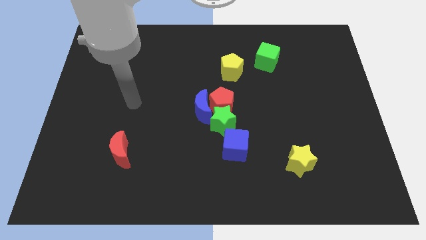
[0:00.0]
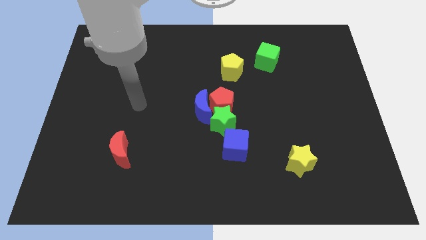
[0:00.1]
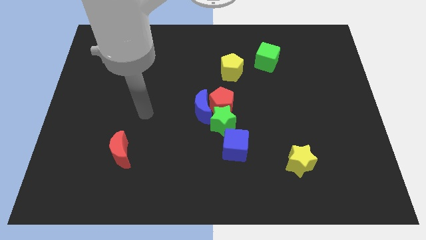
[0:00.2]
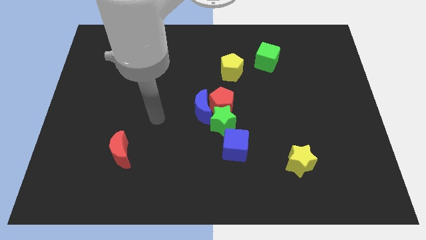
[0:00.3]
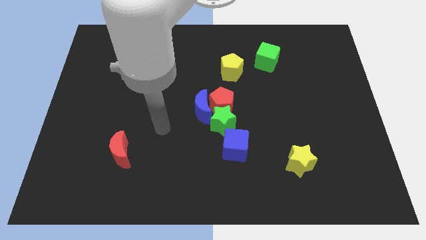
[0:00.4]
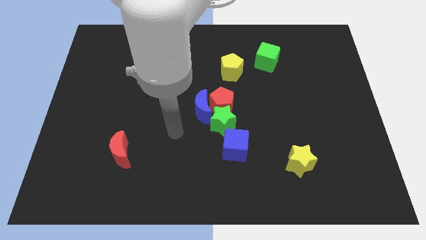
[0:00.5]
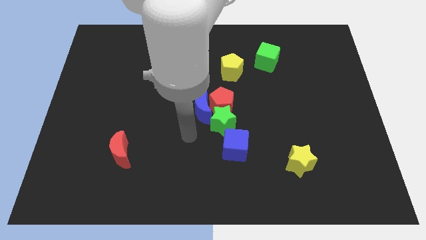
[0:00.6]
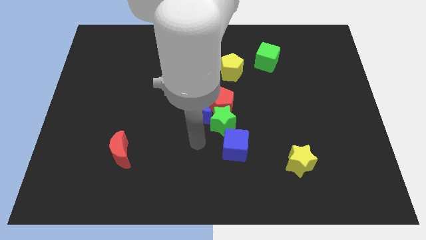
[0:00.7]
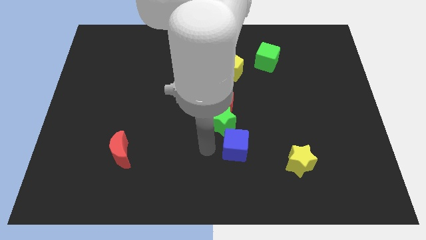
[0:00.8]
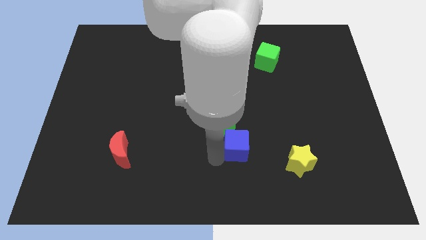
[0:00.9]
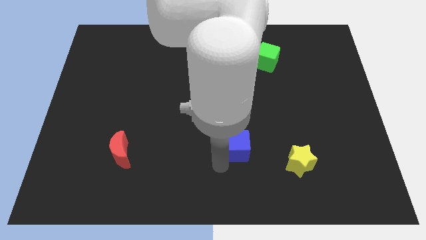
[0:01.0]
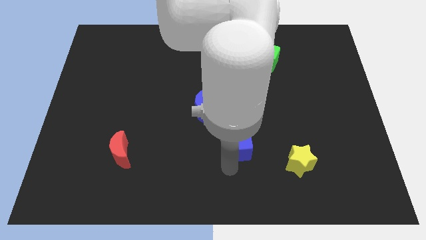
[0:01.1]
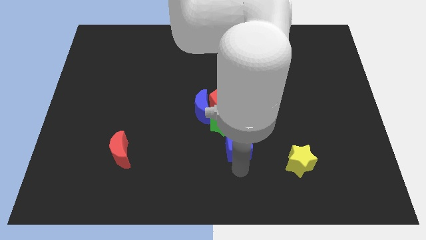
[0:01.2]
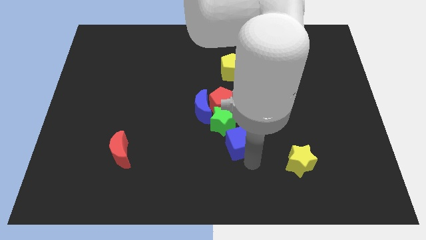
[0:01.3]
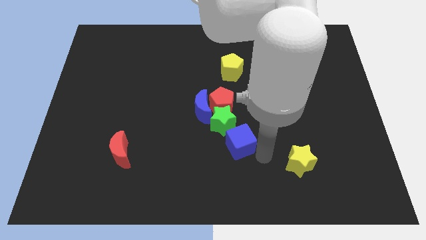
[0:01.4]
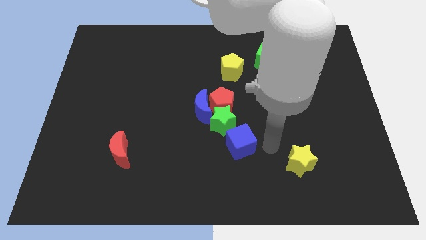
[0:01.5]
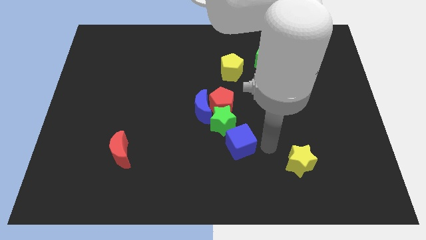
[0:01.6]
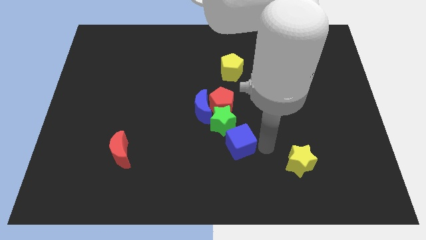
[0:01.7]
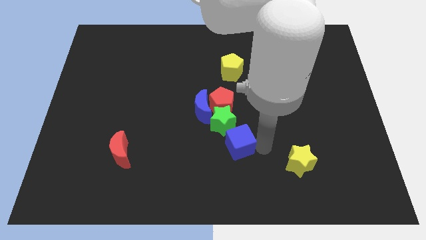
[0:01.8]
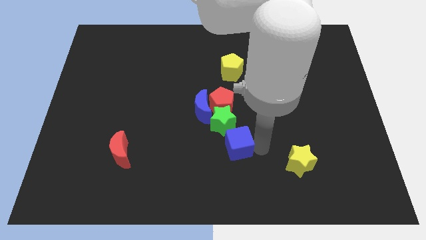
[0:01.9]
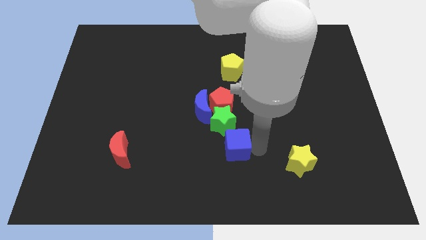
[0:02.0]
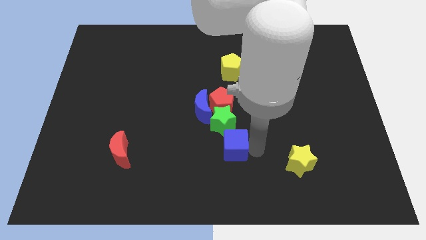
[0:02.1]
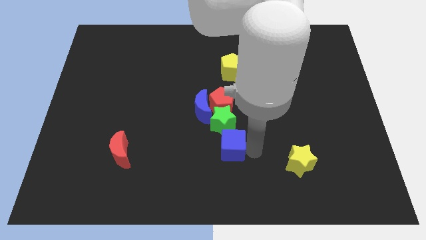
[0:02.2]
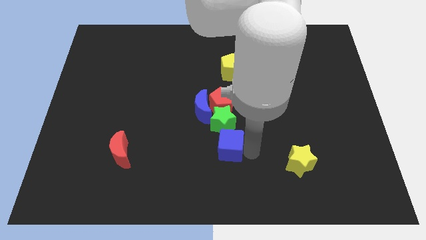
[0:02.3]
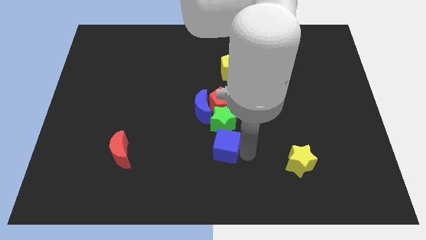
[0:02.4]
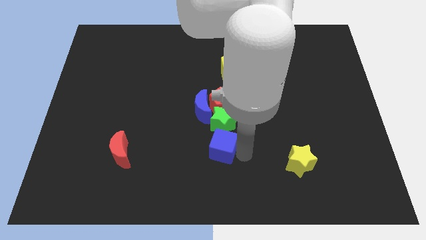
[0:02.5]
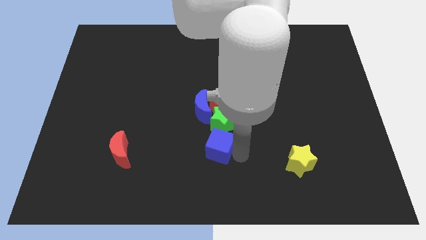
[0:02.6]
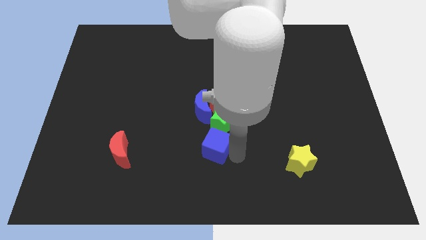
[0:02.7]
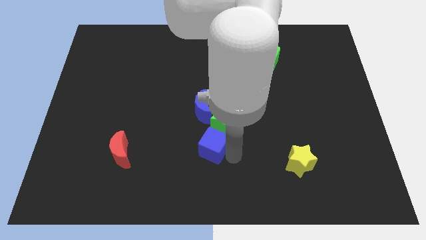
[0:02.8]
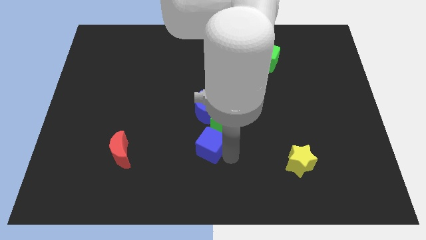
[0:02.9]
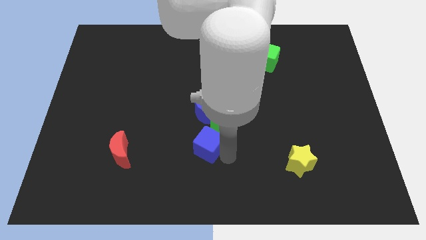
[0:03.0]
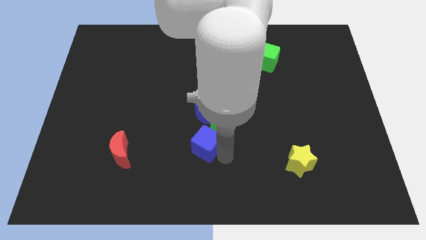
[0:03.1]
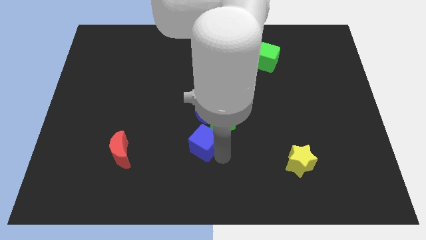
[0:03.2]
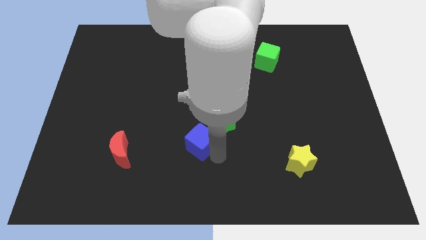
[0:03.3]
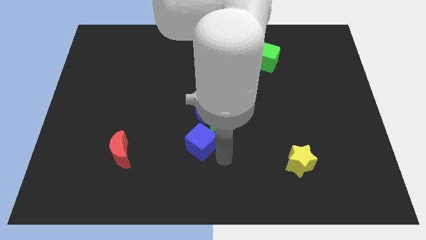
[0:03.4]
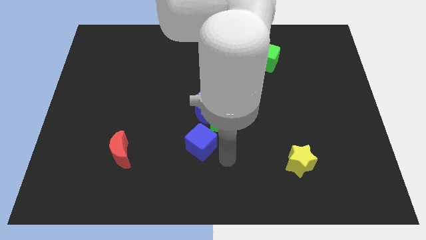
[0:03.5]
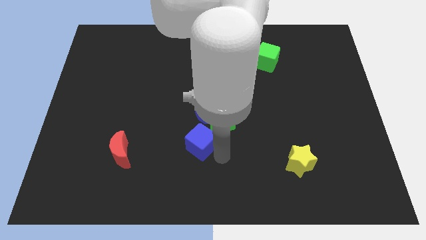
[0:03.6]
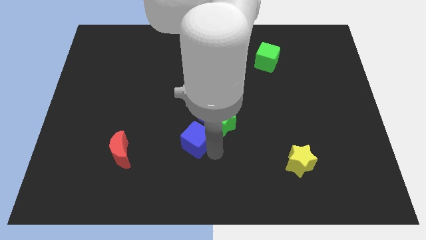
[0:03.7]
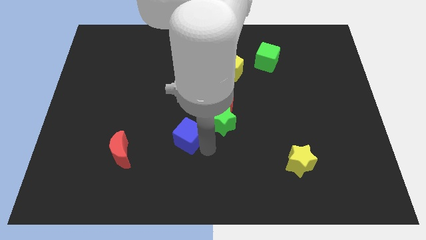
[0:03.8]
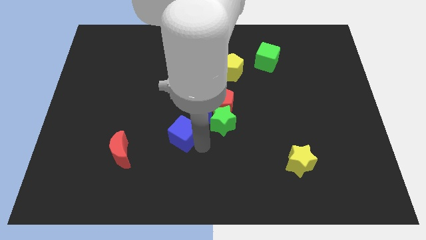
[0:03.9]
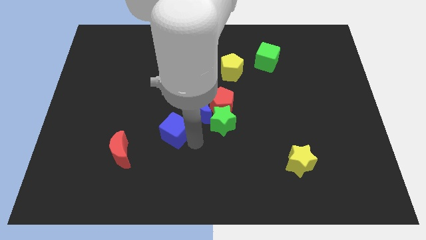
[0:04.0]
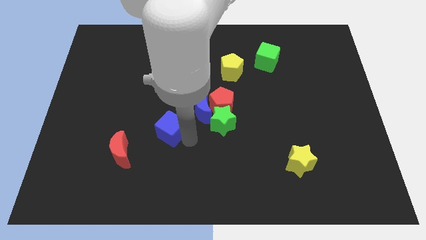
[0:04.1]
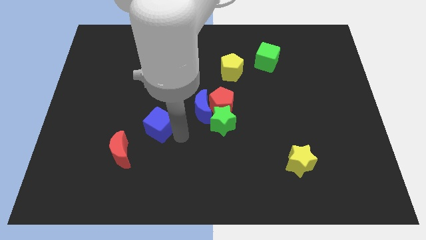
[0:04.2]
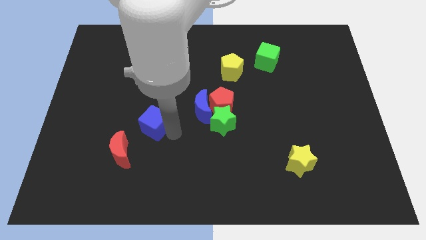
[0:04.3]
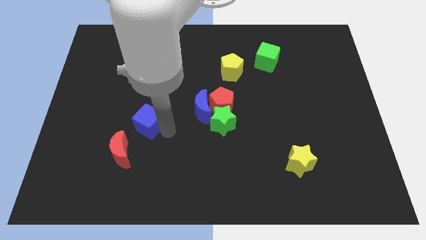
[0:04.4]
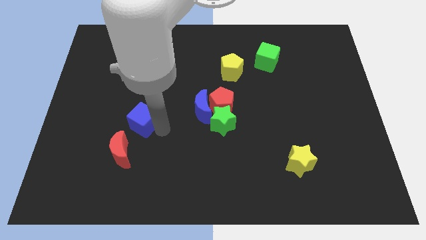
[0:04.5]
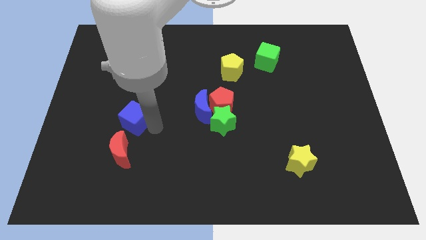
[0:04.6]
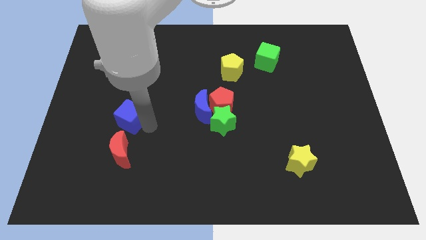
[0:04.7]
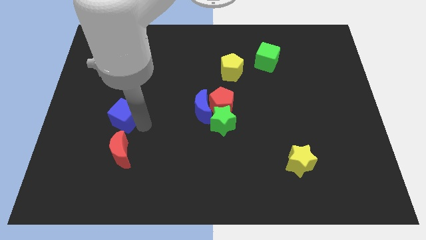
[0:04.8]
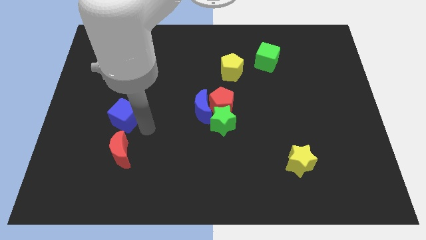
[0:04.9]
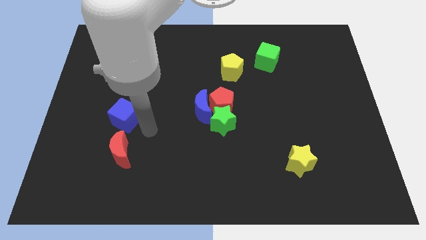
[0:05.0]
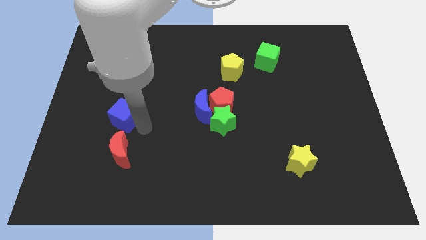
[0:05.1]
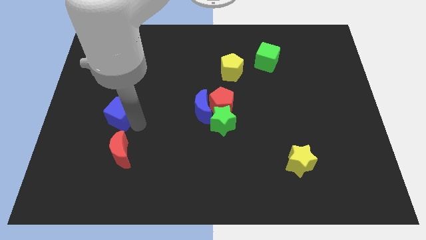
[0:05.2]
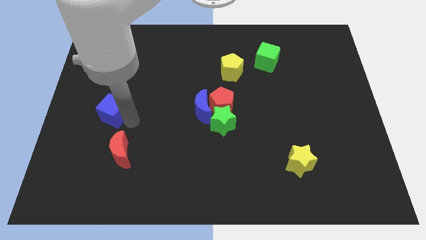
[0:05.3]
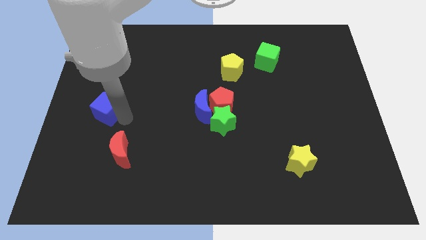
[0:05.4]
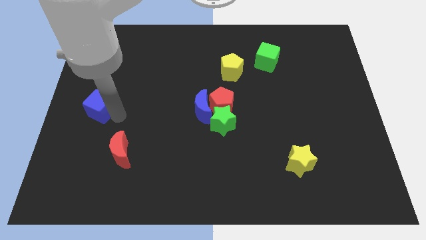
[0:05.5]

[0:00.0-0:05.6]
move the blue cube to the center left
